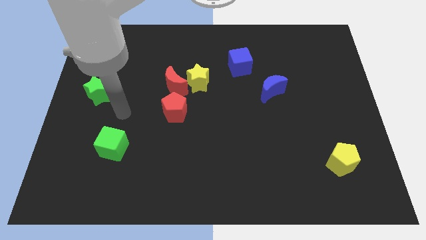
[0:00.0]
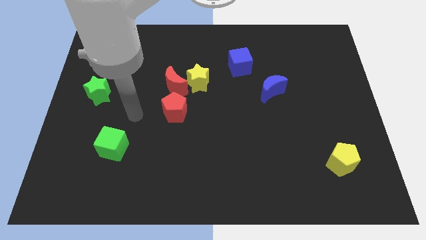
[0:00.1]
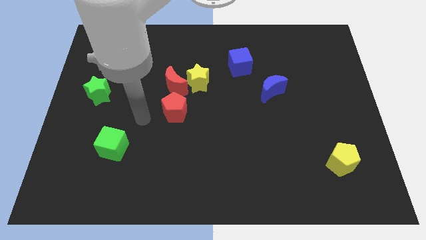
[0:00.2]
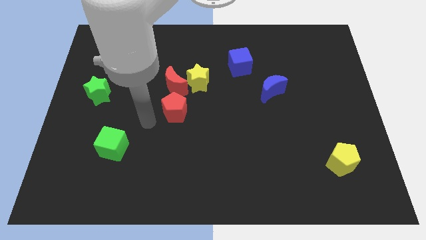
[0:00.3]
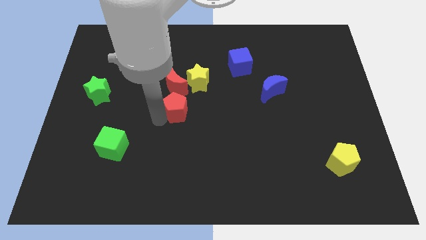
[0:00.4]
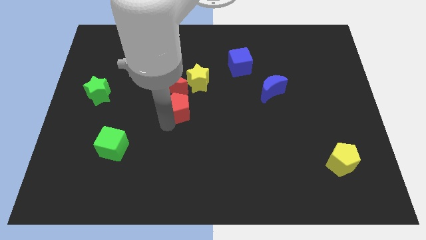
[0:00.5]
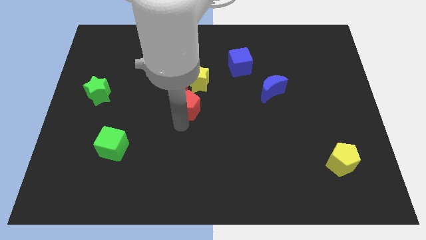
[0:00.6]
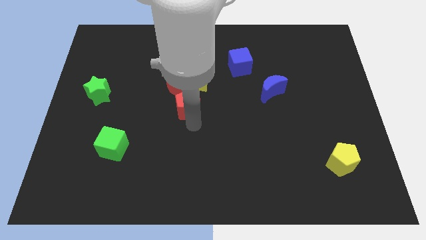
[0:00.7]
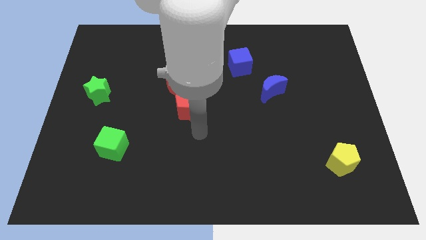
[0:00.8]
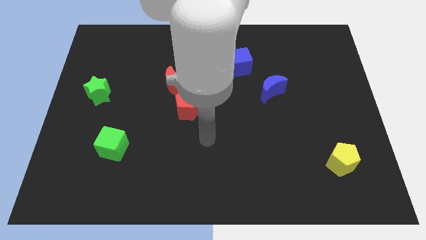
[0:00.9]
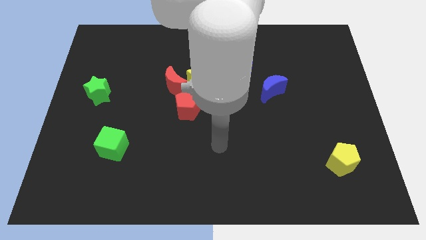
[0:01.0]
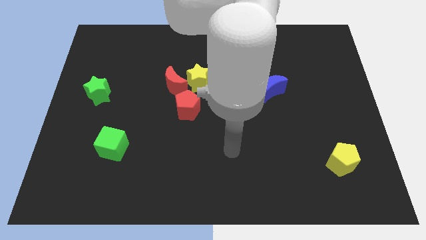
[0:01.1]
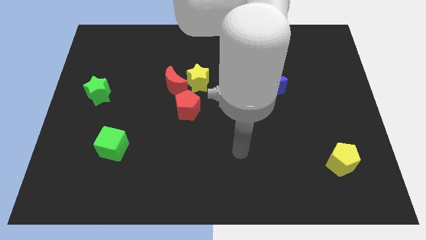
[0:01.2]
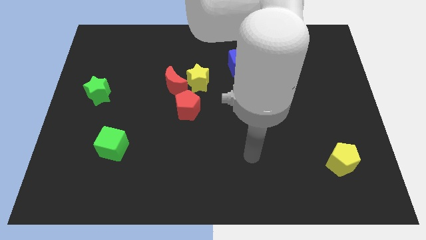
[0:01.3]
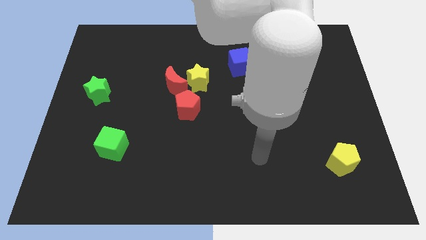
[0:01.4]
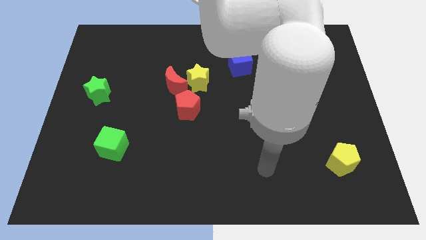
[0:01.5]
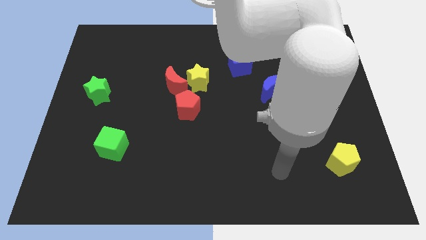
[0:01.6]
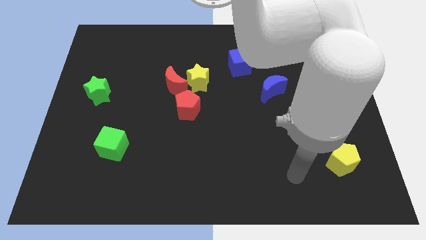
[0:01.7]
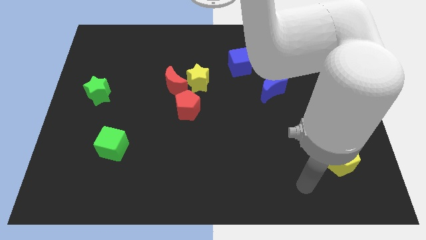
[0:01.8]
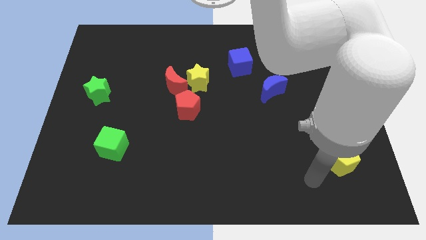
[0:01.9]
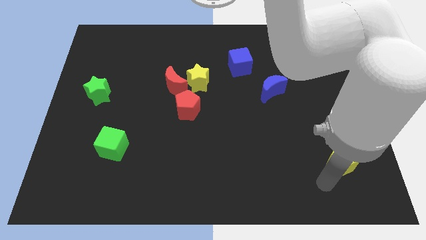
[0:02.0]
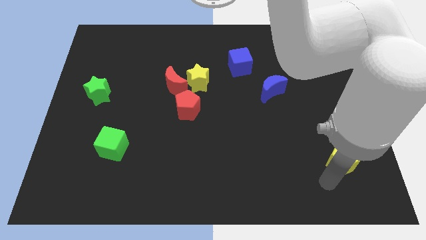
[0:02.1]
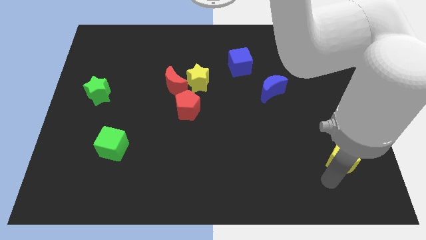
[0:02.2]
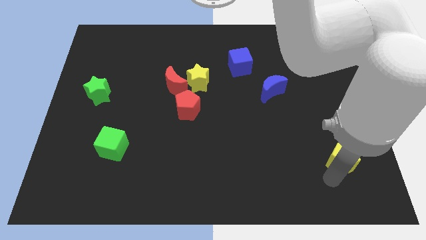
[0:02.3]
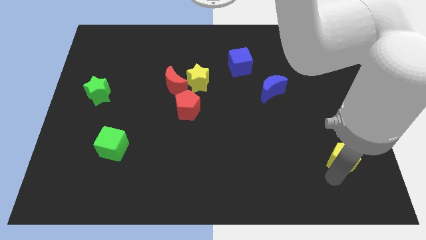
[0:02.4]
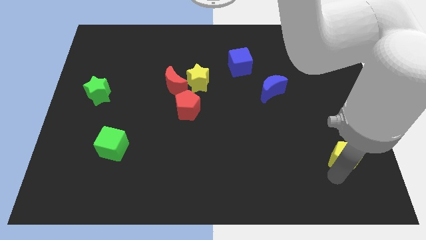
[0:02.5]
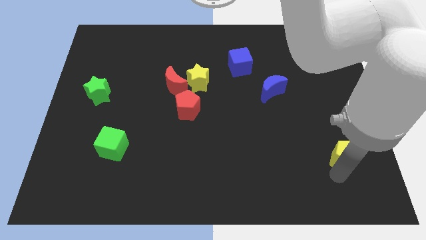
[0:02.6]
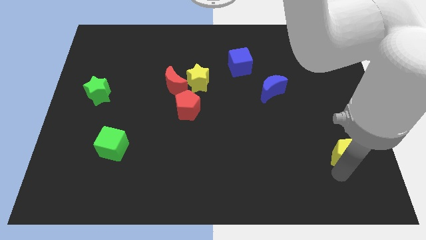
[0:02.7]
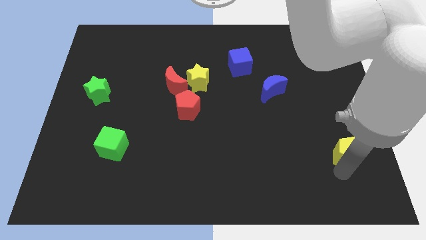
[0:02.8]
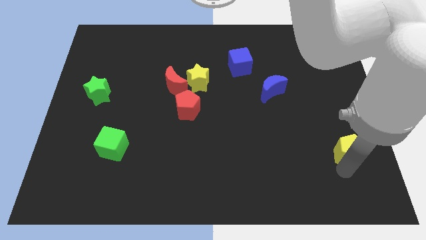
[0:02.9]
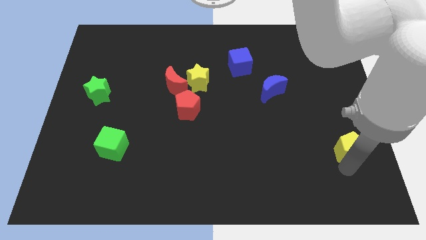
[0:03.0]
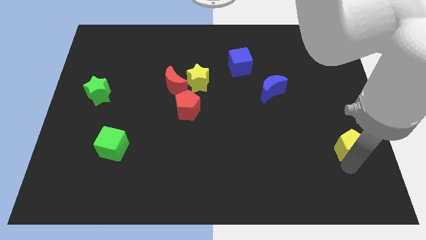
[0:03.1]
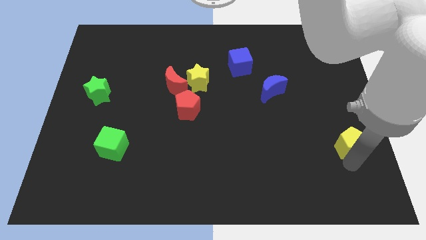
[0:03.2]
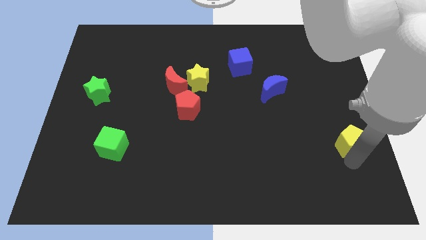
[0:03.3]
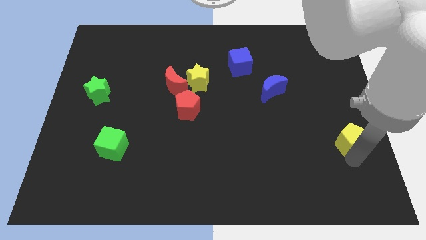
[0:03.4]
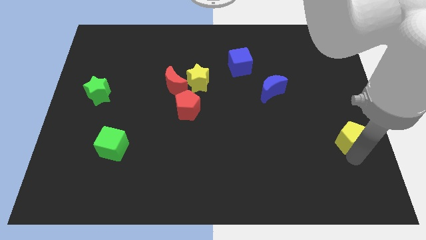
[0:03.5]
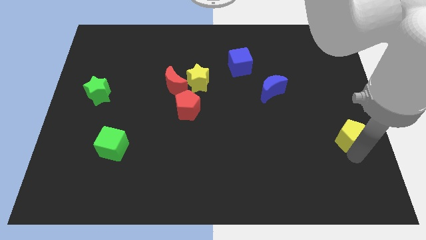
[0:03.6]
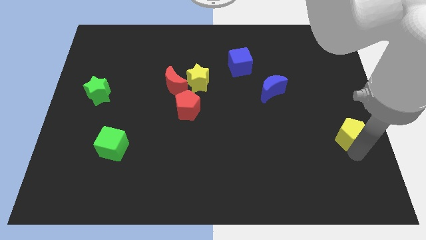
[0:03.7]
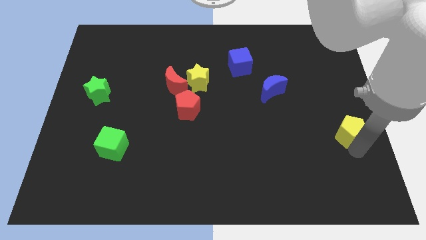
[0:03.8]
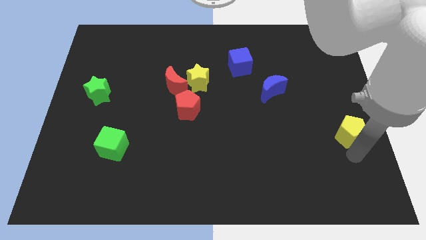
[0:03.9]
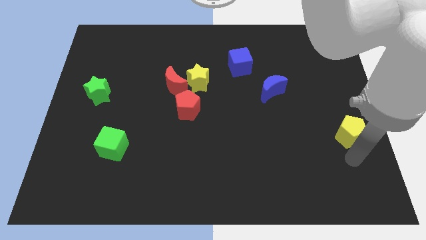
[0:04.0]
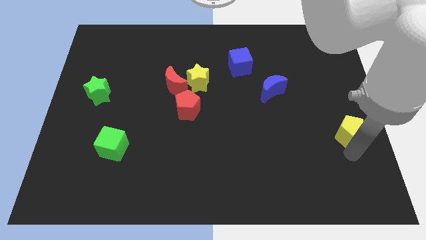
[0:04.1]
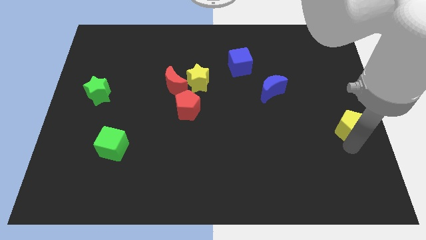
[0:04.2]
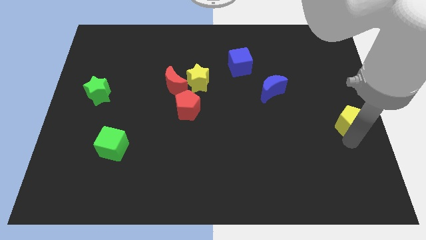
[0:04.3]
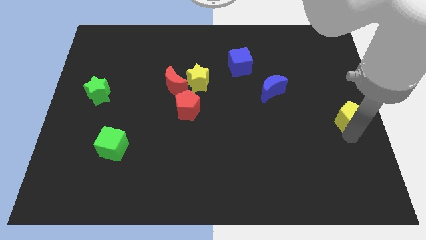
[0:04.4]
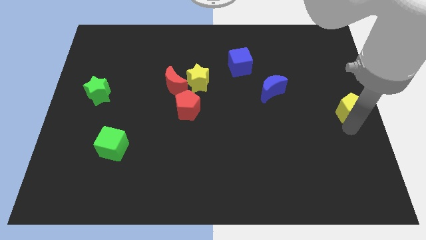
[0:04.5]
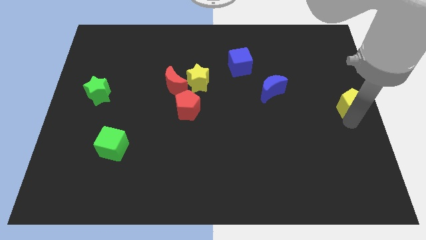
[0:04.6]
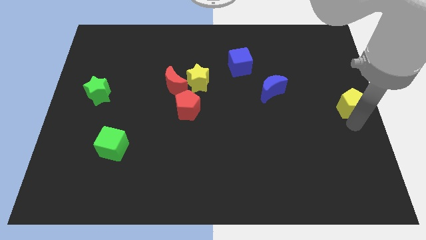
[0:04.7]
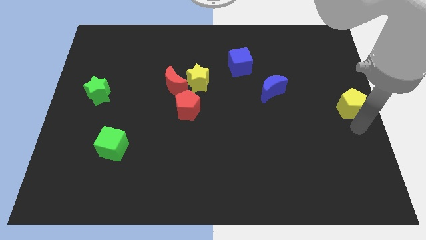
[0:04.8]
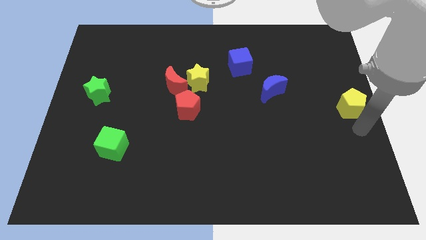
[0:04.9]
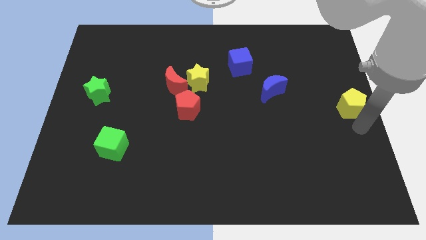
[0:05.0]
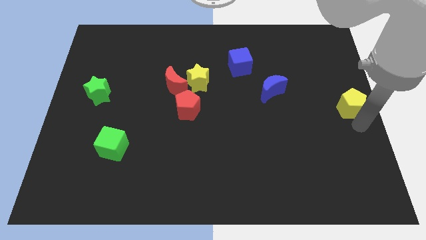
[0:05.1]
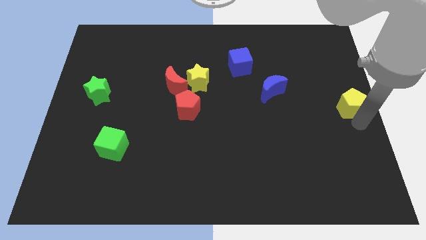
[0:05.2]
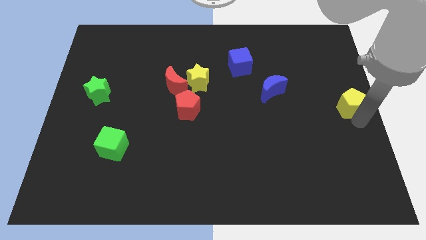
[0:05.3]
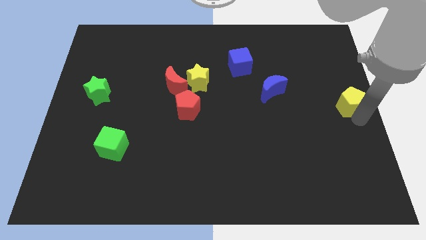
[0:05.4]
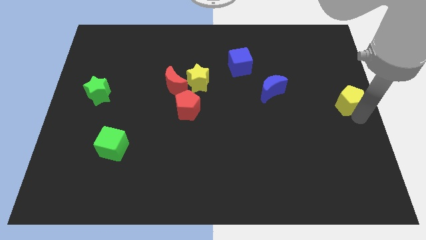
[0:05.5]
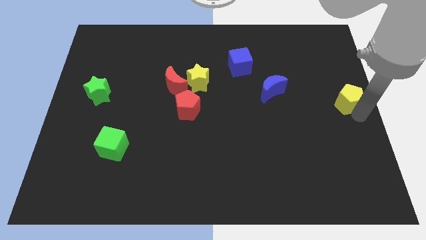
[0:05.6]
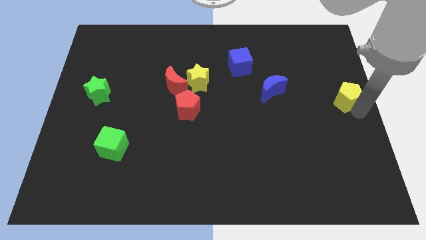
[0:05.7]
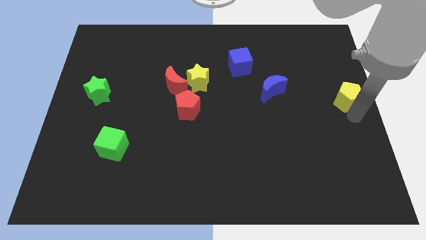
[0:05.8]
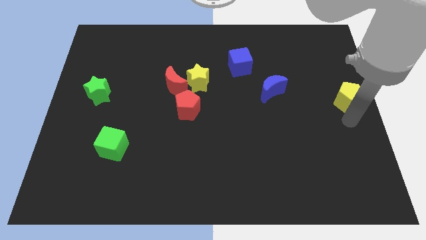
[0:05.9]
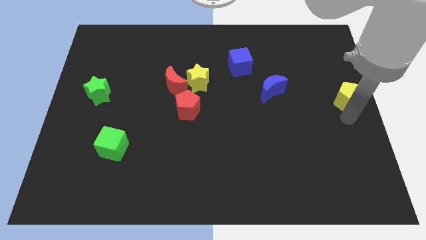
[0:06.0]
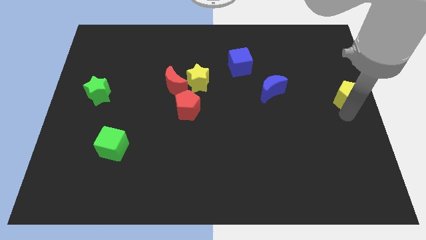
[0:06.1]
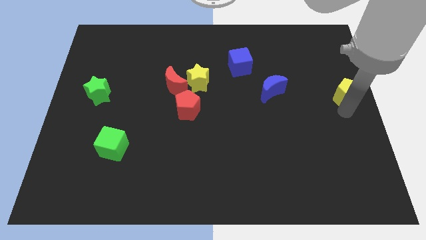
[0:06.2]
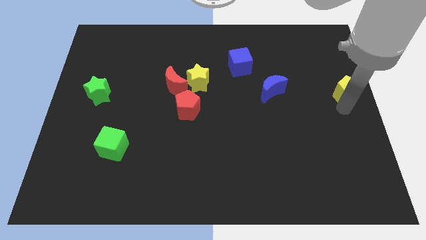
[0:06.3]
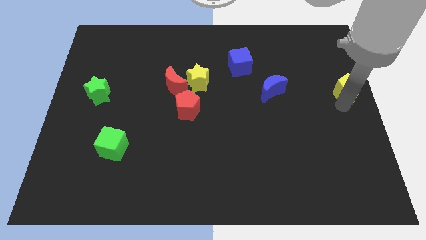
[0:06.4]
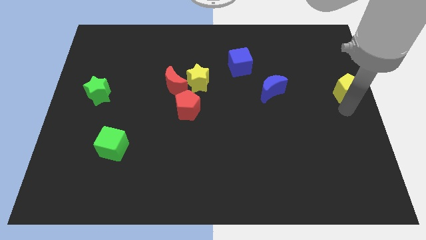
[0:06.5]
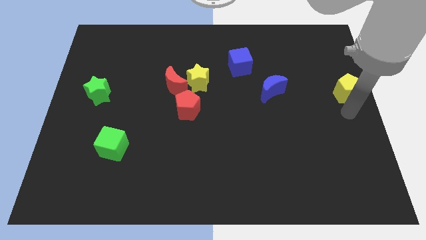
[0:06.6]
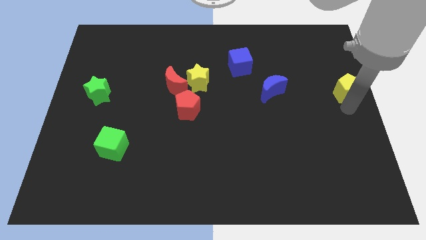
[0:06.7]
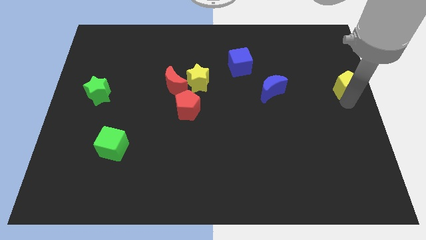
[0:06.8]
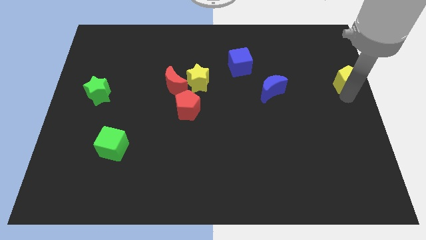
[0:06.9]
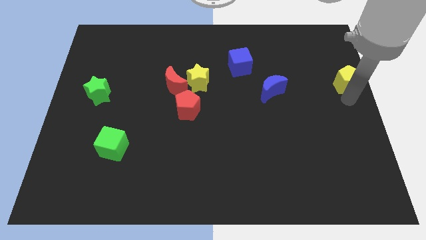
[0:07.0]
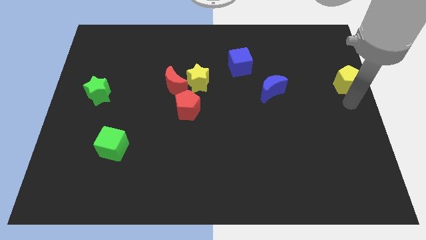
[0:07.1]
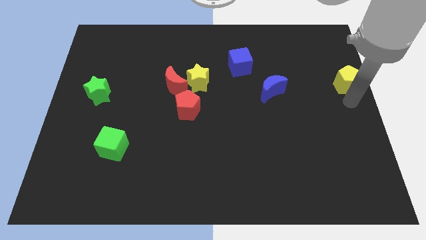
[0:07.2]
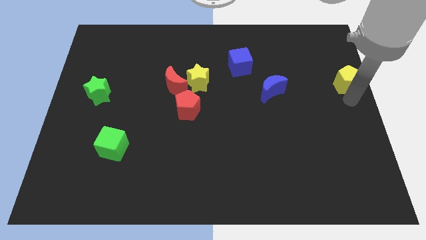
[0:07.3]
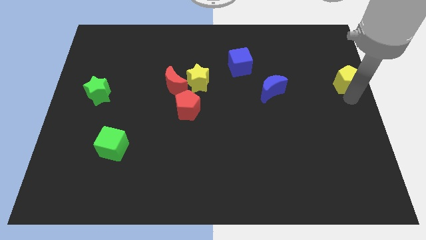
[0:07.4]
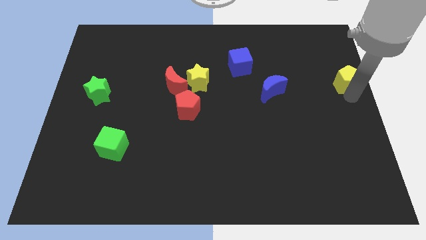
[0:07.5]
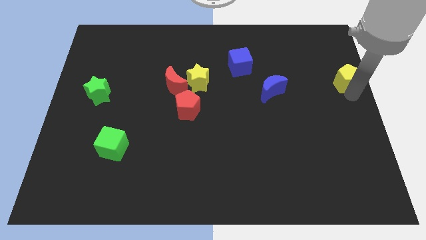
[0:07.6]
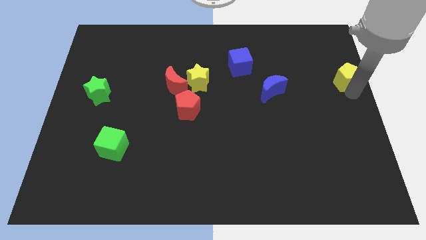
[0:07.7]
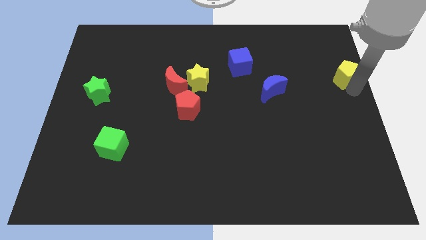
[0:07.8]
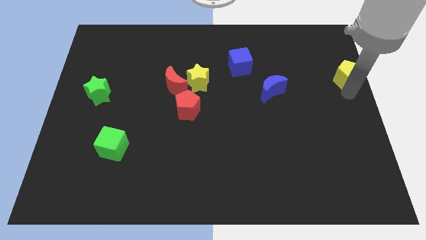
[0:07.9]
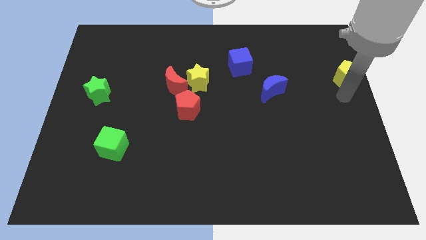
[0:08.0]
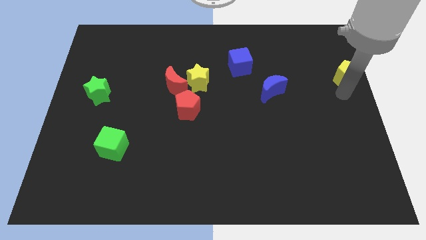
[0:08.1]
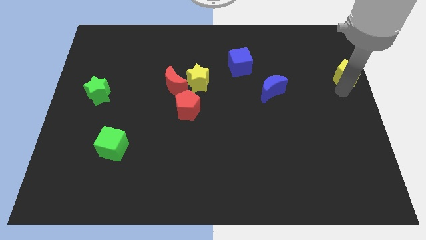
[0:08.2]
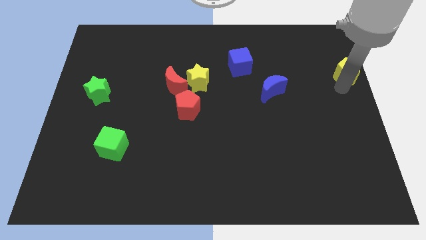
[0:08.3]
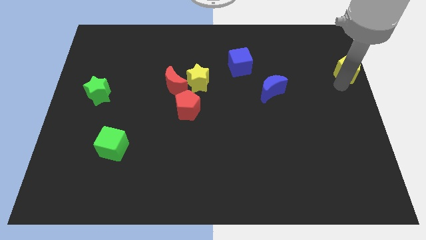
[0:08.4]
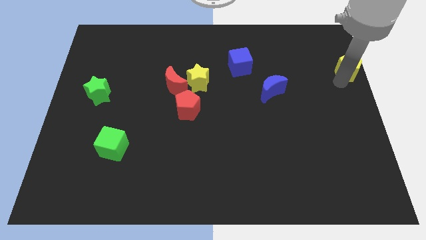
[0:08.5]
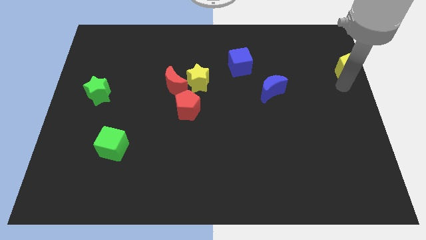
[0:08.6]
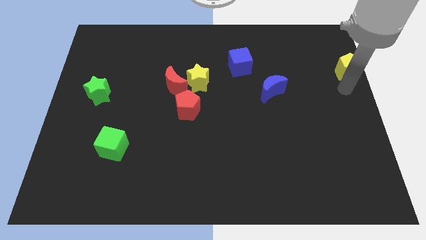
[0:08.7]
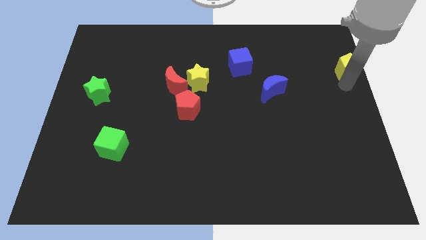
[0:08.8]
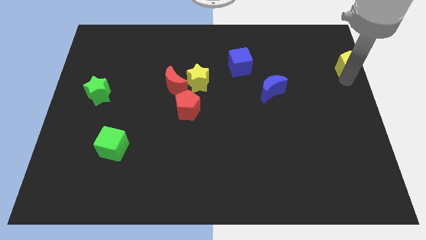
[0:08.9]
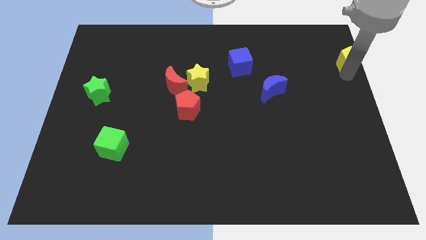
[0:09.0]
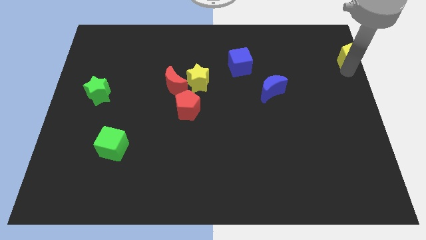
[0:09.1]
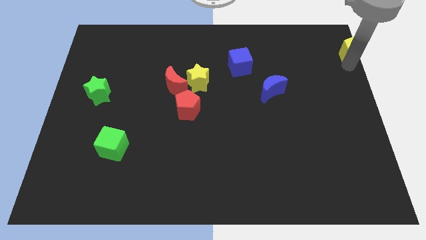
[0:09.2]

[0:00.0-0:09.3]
push the yellow pentagon to the upper right corner
